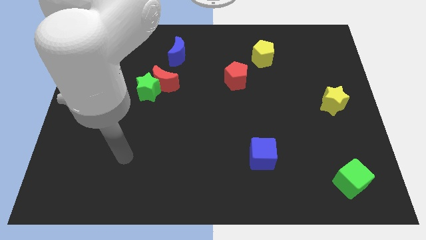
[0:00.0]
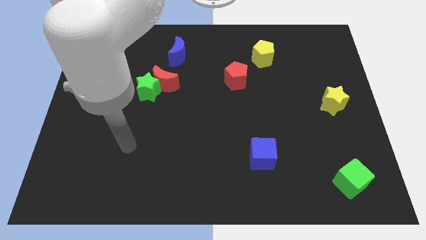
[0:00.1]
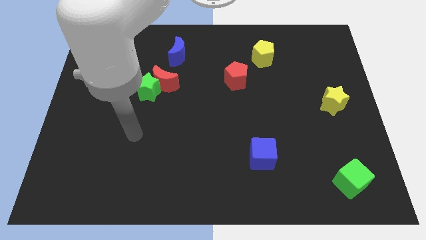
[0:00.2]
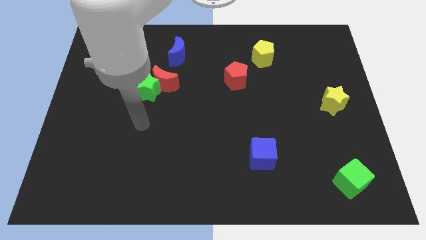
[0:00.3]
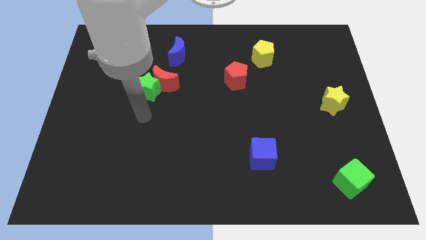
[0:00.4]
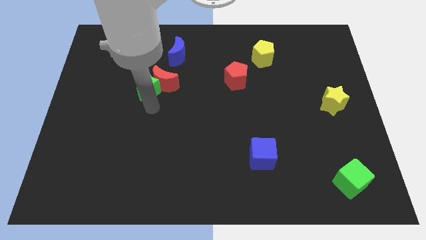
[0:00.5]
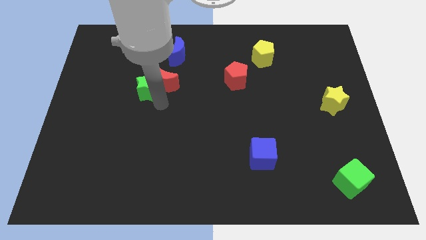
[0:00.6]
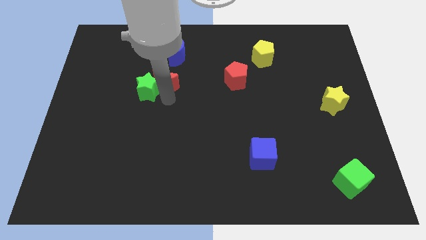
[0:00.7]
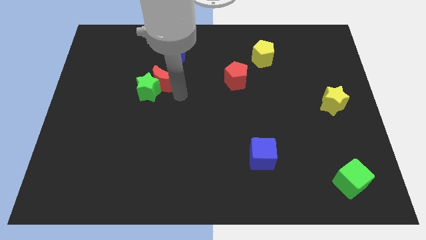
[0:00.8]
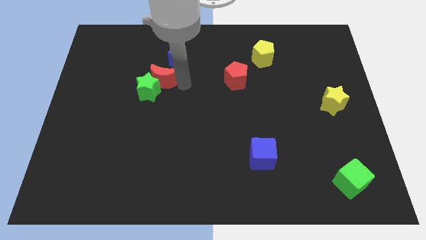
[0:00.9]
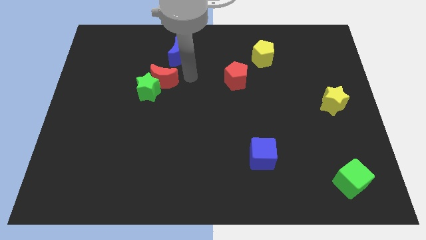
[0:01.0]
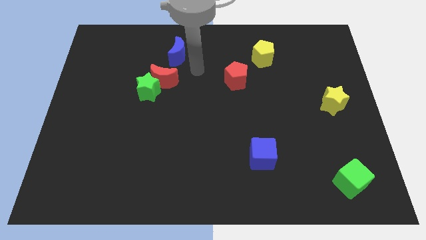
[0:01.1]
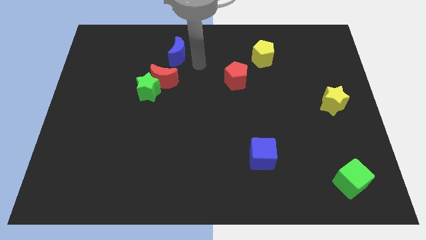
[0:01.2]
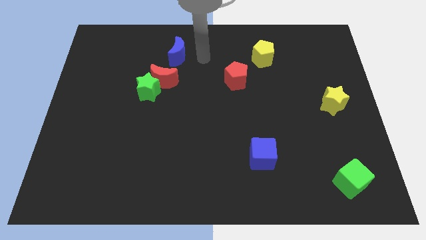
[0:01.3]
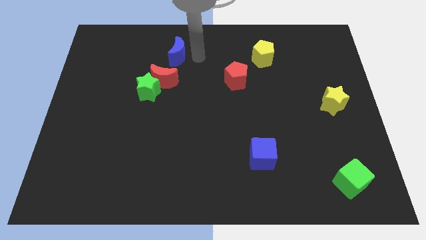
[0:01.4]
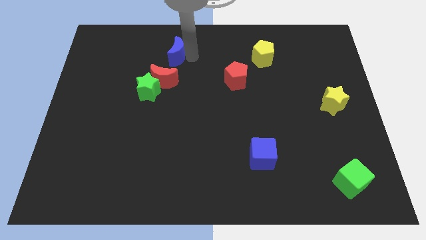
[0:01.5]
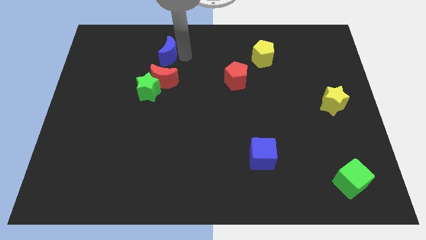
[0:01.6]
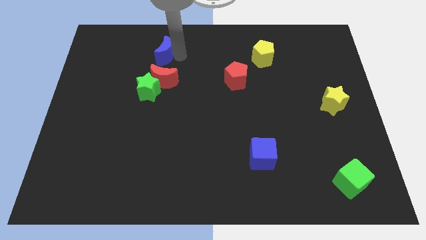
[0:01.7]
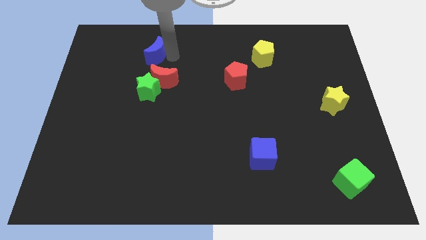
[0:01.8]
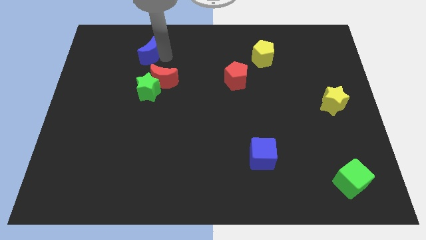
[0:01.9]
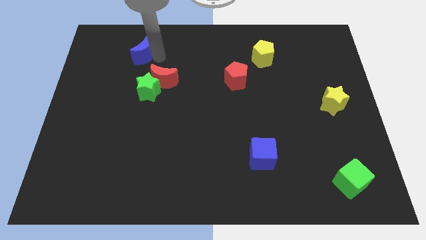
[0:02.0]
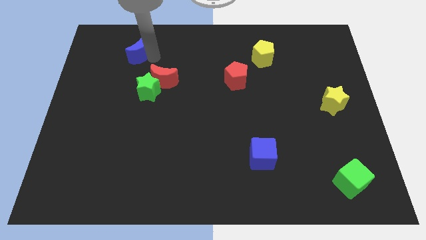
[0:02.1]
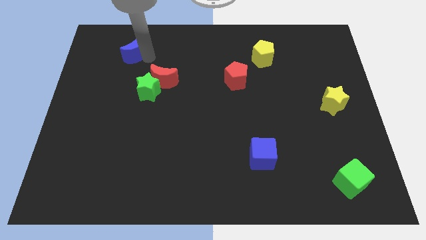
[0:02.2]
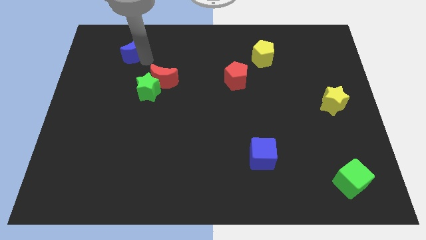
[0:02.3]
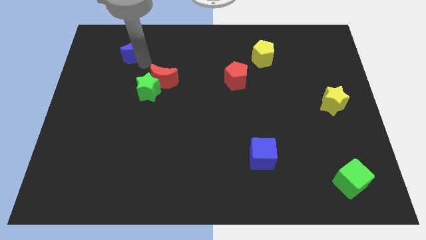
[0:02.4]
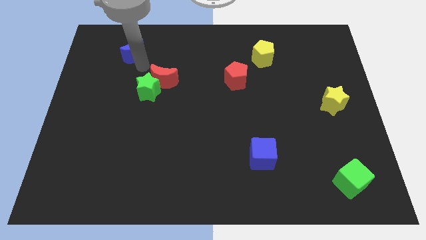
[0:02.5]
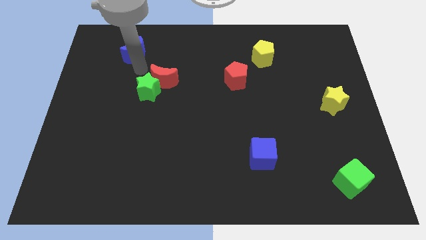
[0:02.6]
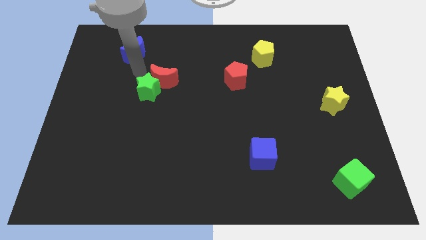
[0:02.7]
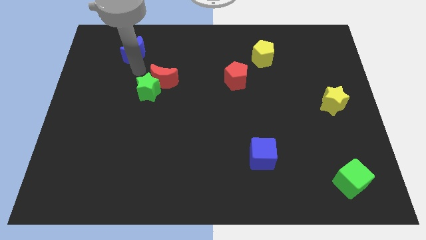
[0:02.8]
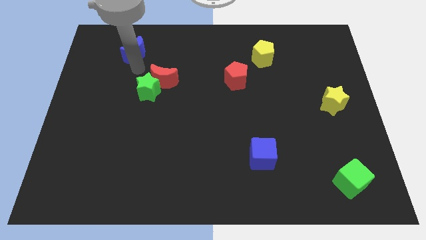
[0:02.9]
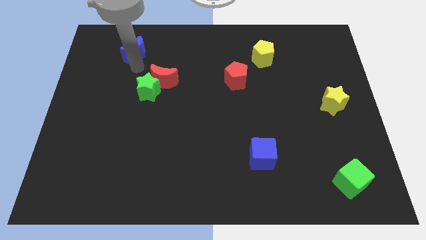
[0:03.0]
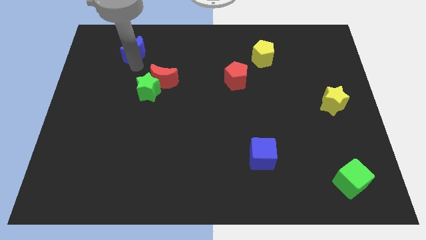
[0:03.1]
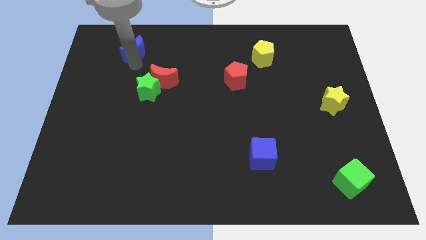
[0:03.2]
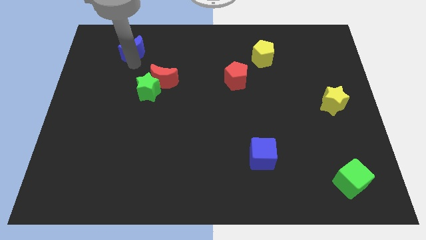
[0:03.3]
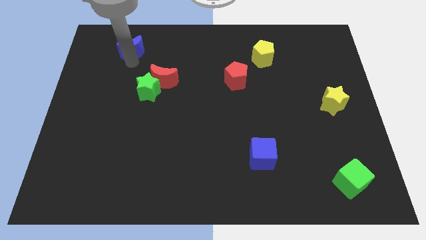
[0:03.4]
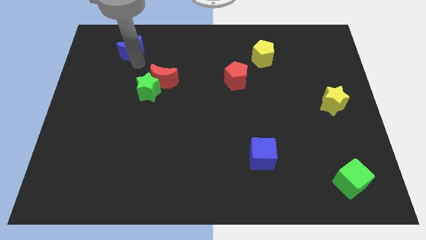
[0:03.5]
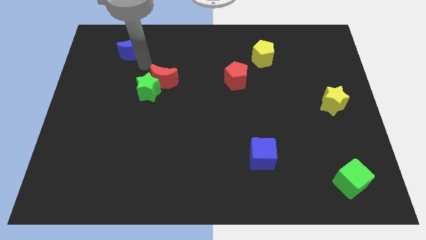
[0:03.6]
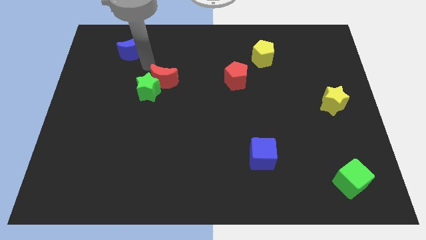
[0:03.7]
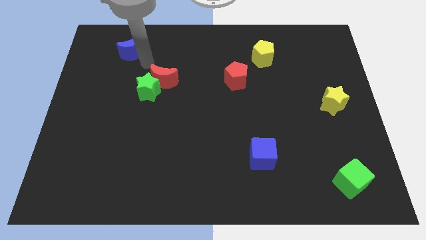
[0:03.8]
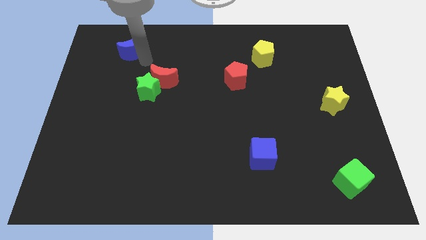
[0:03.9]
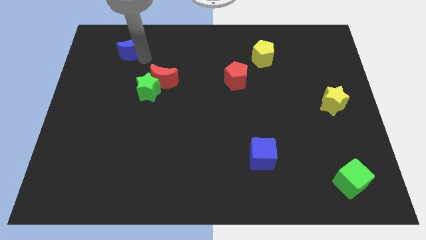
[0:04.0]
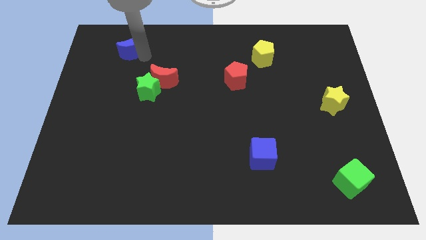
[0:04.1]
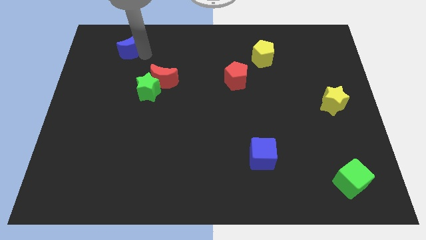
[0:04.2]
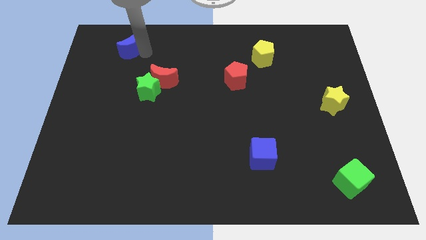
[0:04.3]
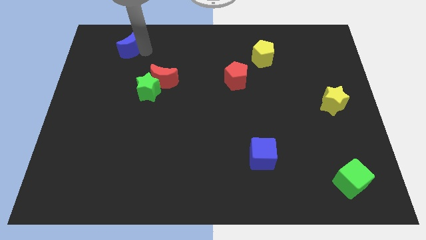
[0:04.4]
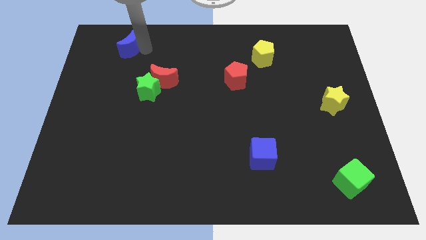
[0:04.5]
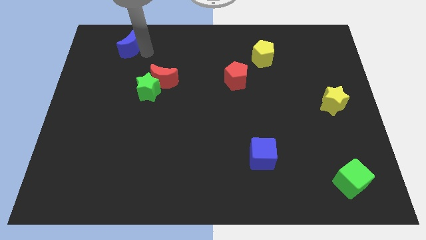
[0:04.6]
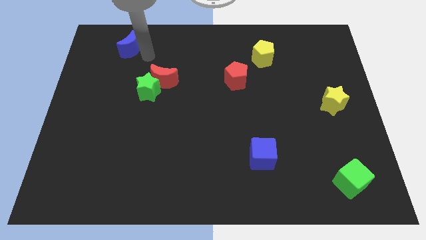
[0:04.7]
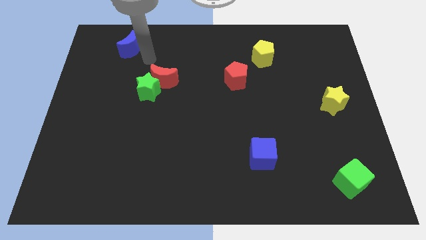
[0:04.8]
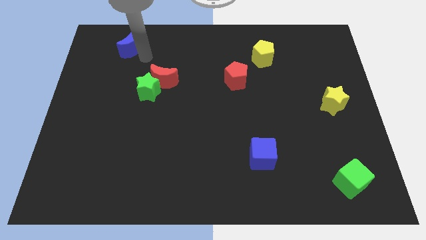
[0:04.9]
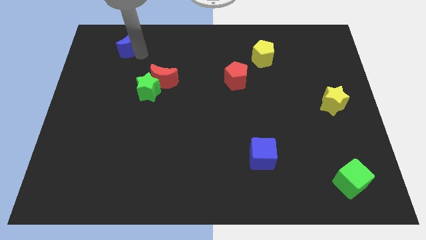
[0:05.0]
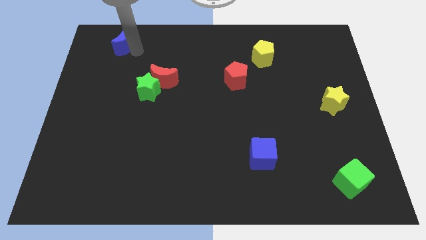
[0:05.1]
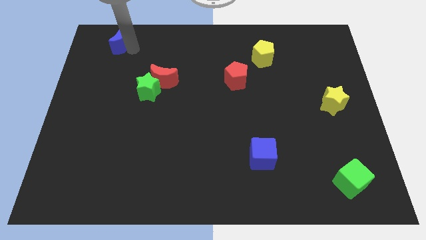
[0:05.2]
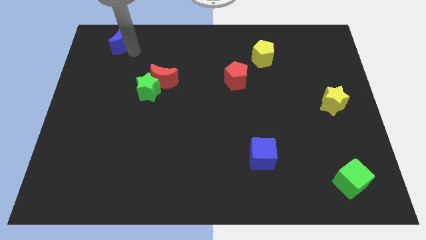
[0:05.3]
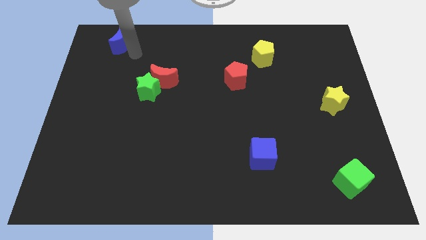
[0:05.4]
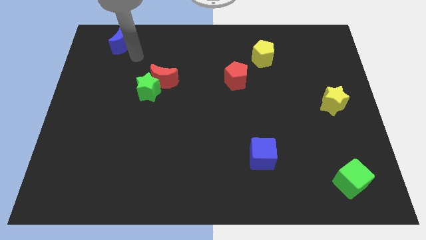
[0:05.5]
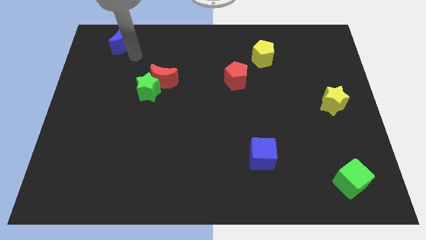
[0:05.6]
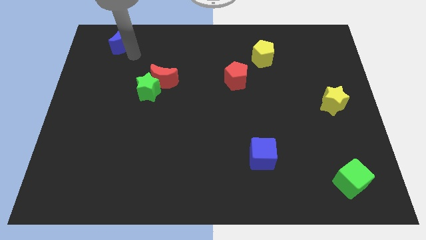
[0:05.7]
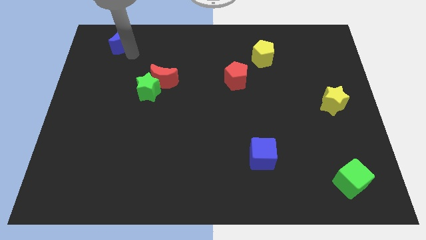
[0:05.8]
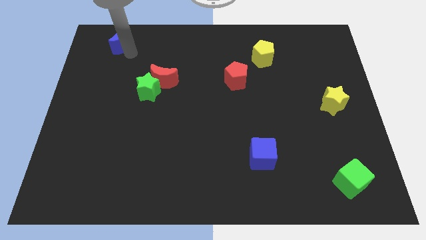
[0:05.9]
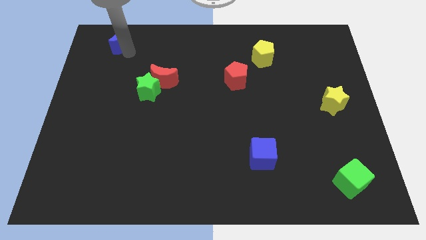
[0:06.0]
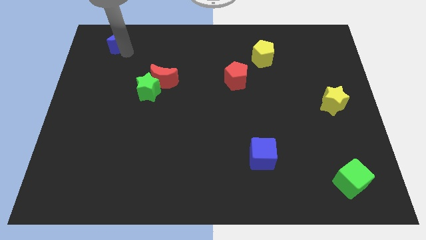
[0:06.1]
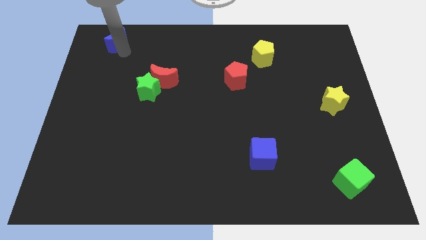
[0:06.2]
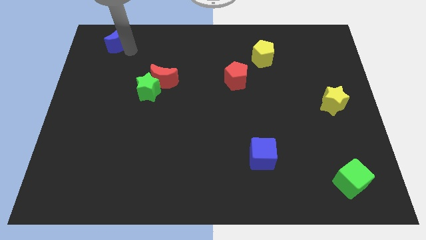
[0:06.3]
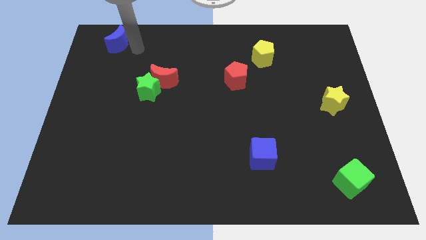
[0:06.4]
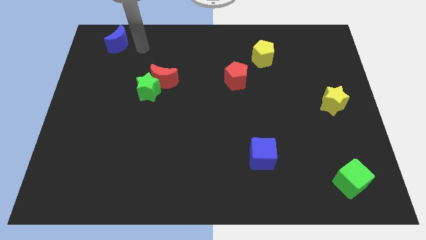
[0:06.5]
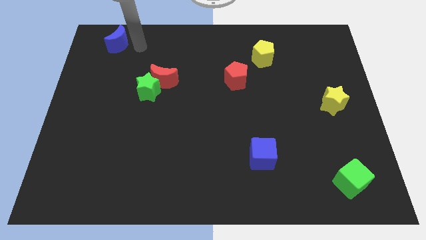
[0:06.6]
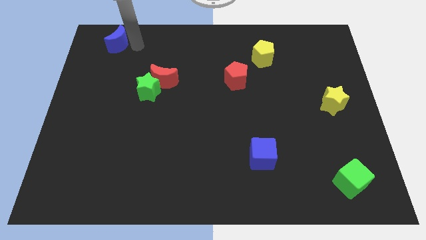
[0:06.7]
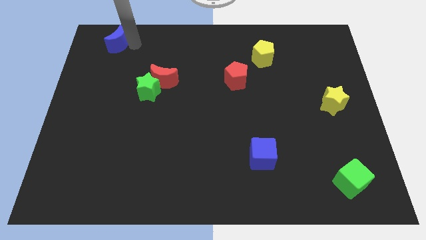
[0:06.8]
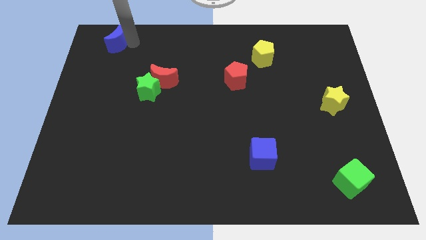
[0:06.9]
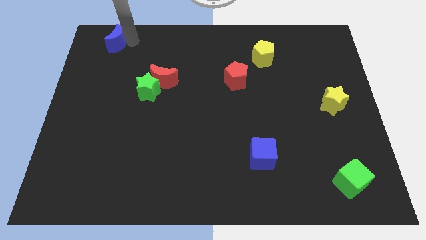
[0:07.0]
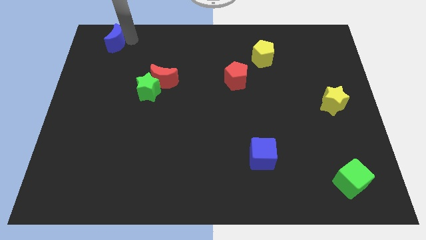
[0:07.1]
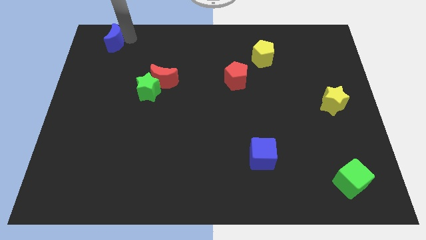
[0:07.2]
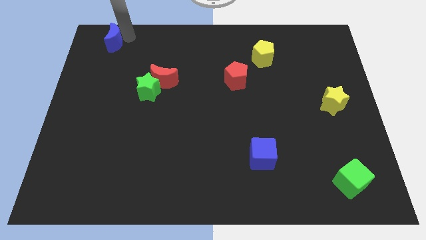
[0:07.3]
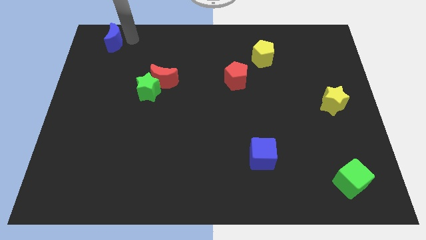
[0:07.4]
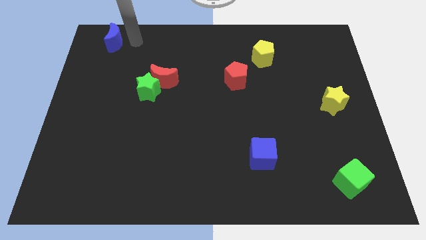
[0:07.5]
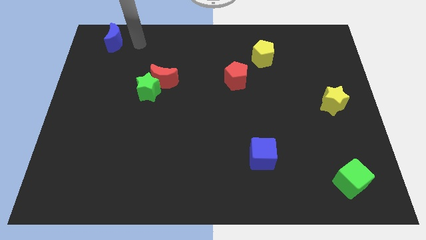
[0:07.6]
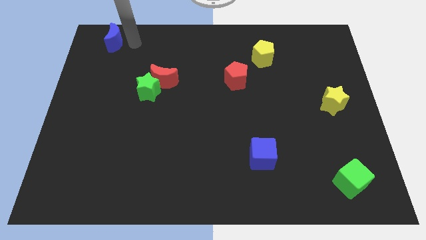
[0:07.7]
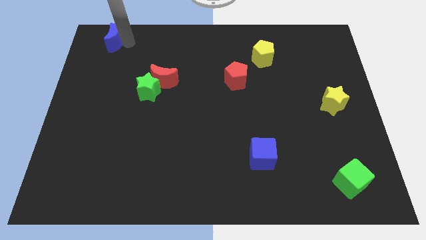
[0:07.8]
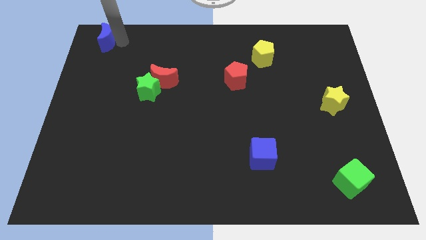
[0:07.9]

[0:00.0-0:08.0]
move the blue moon to the top left of the board
